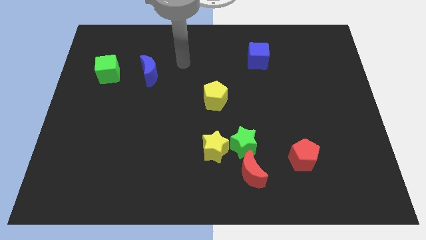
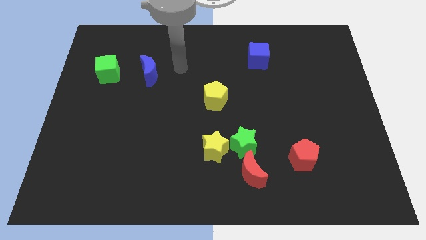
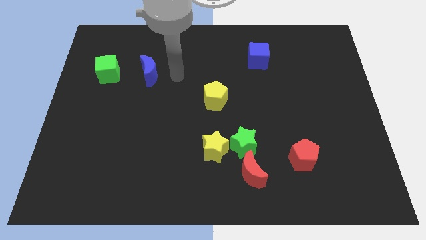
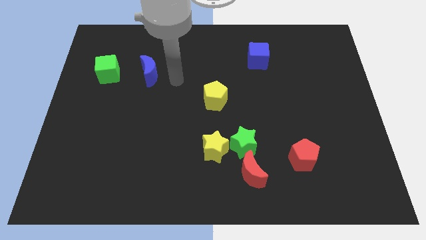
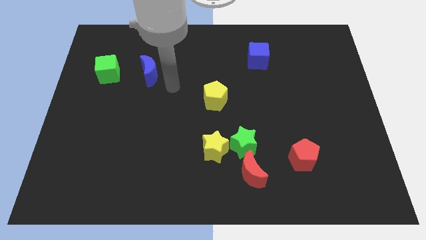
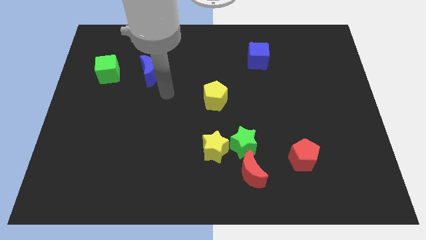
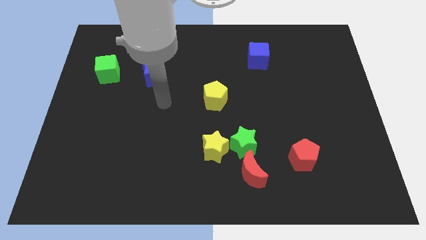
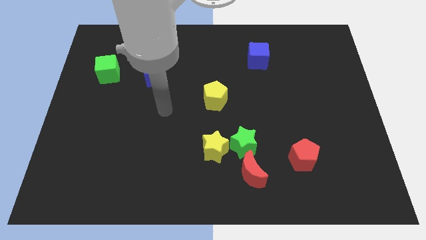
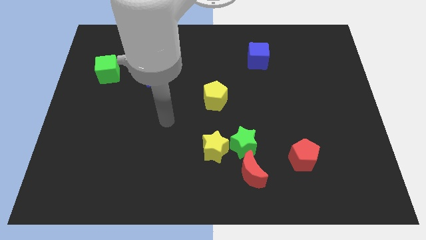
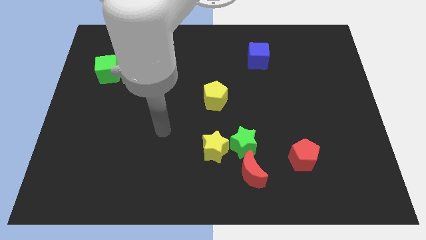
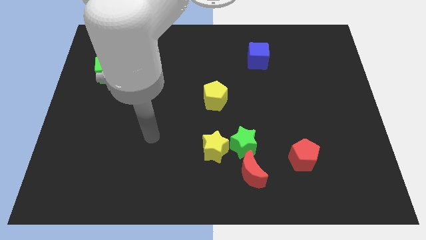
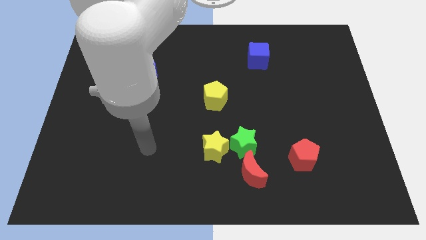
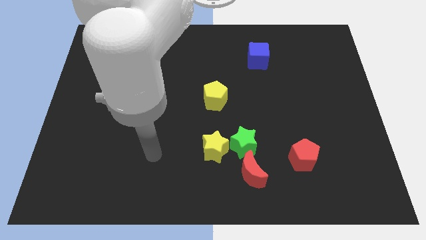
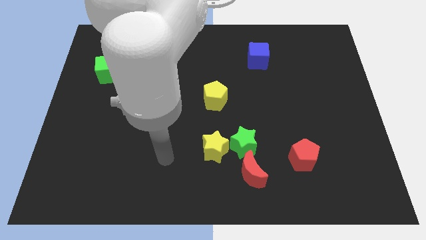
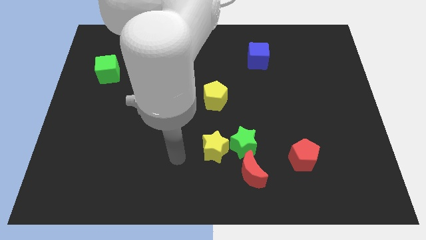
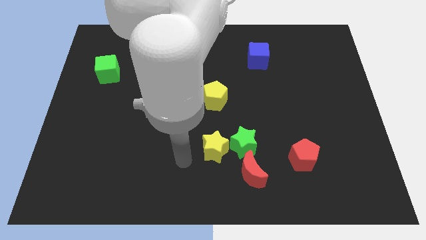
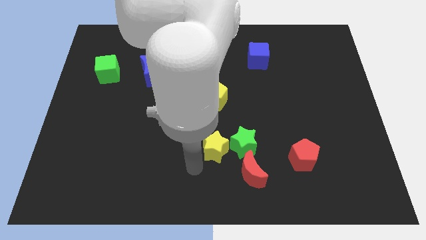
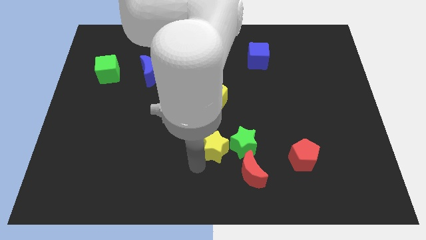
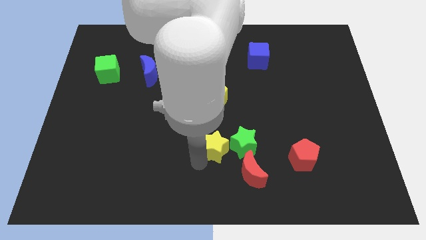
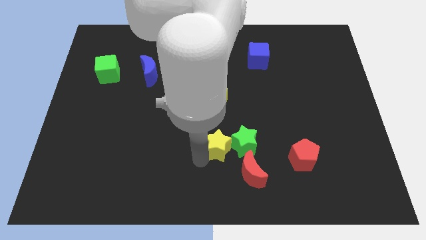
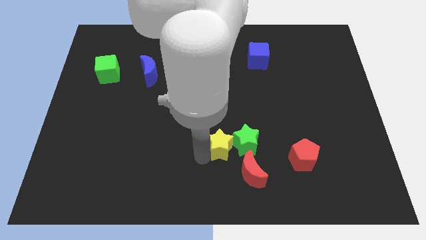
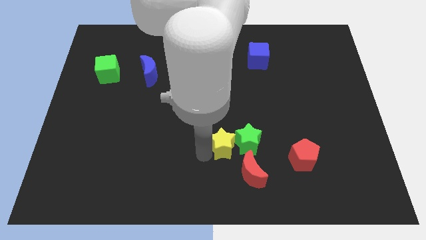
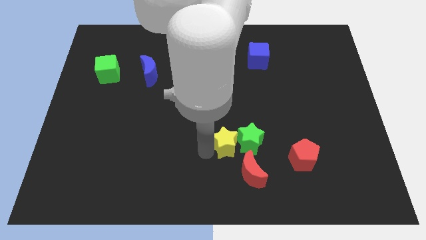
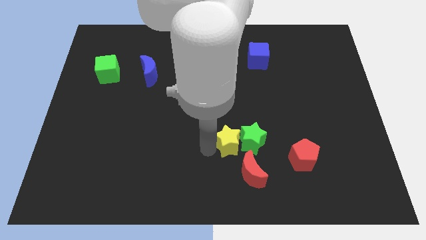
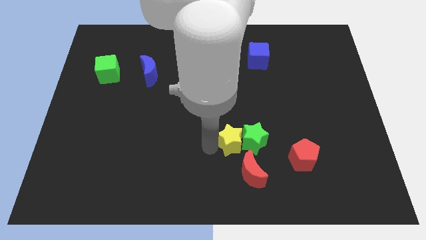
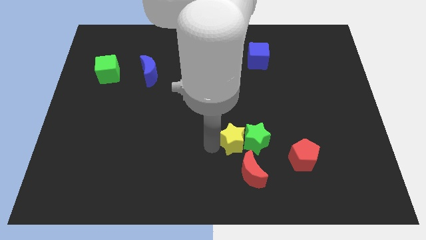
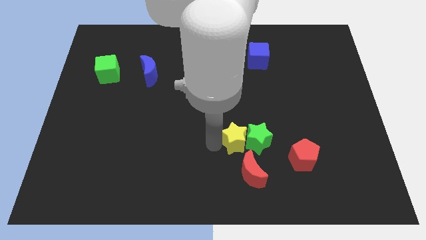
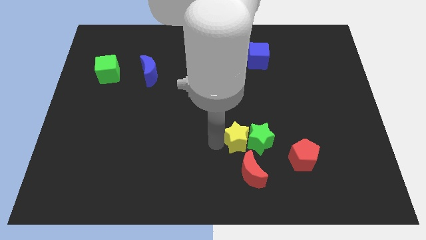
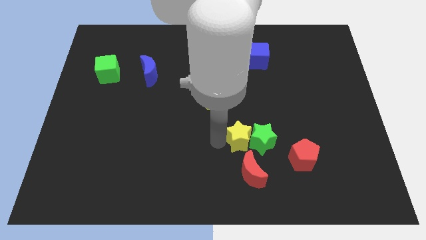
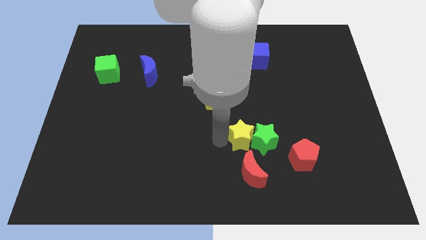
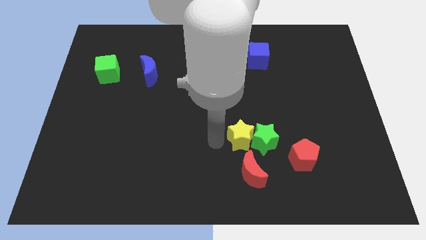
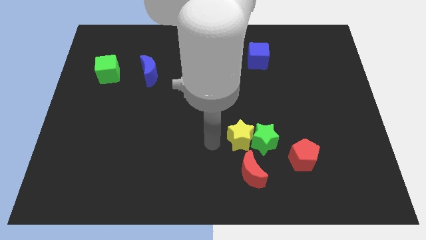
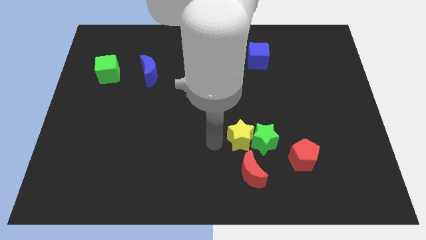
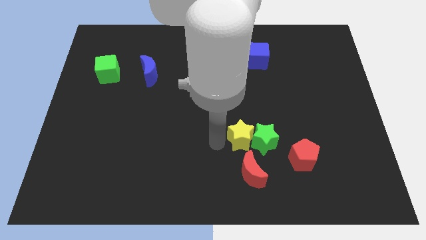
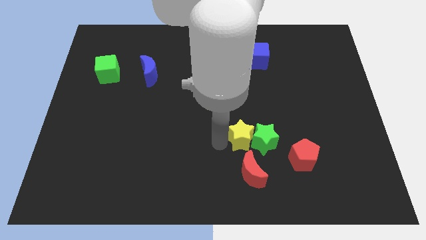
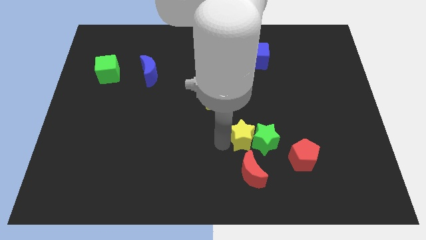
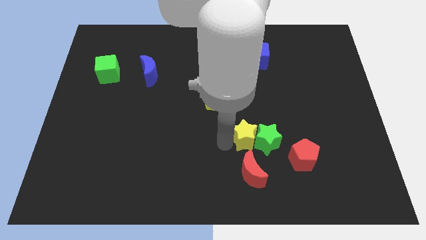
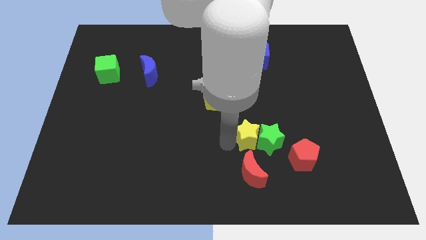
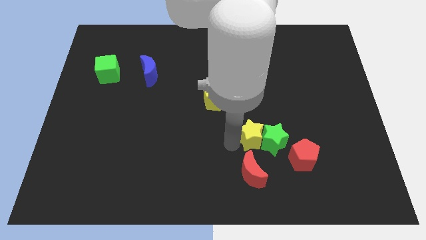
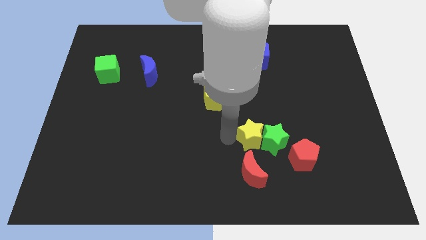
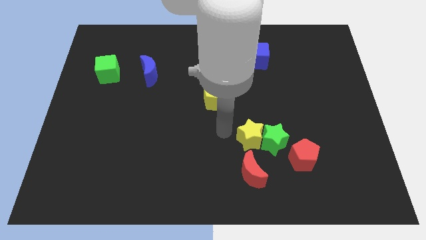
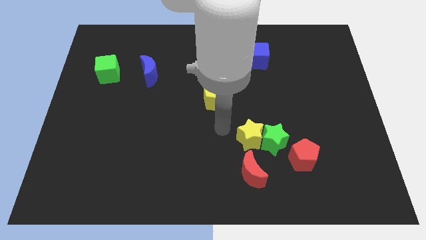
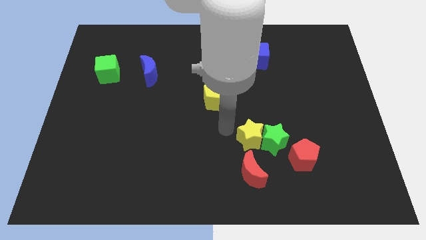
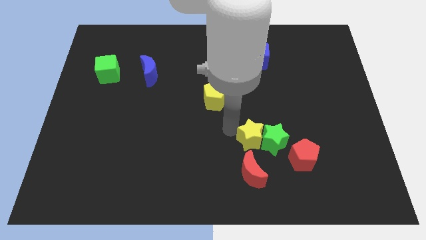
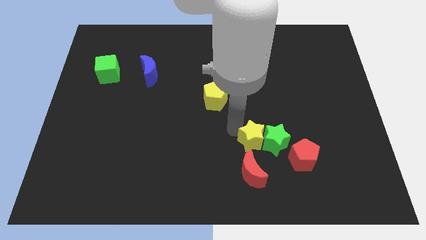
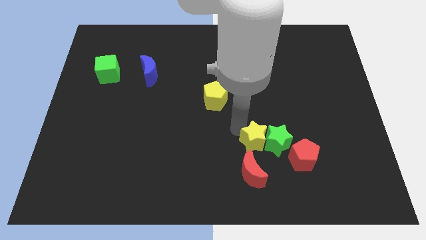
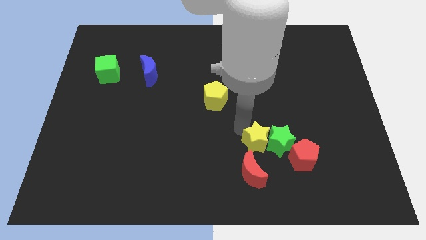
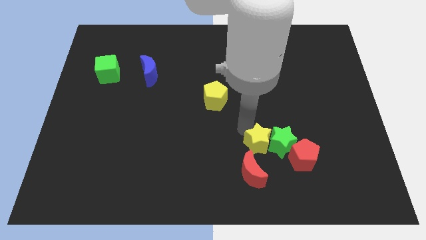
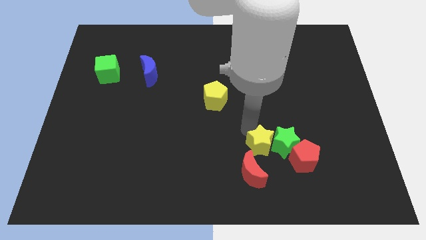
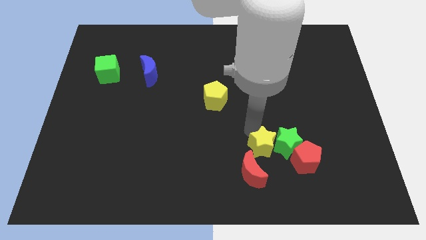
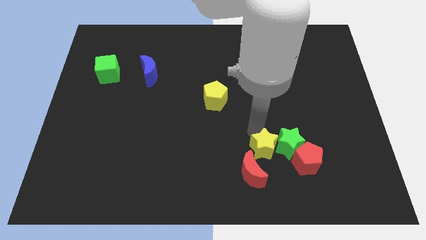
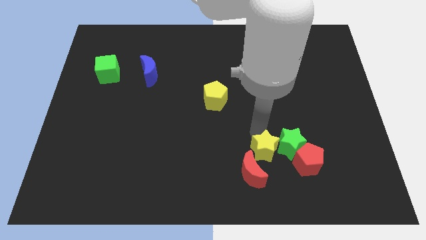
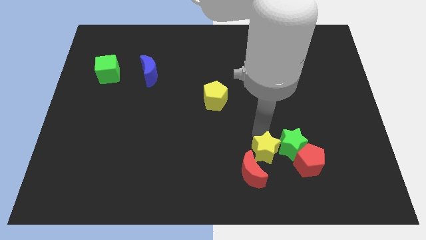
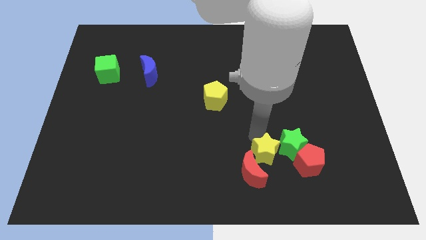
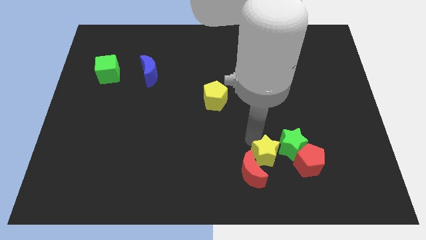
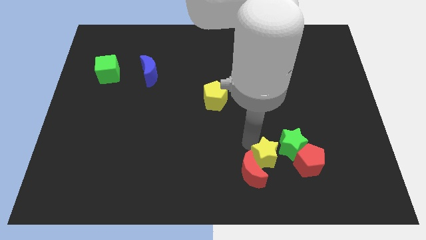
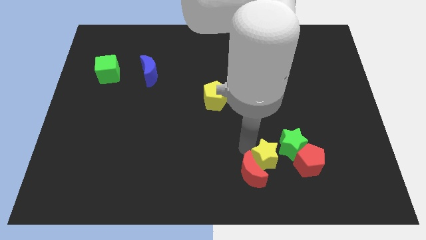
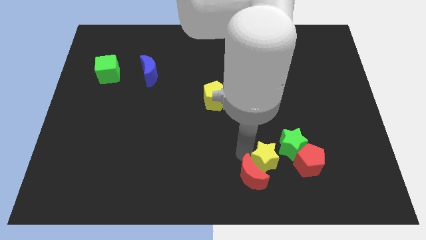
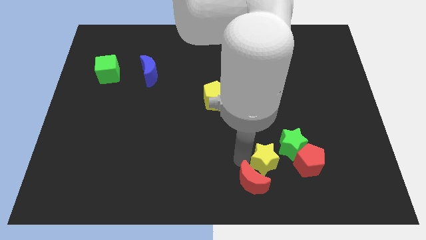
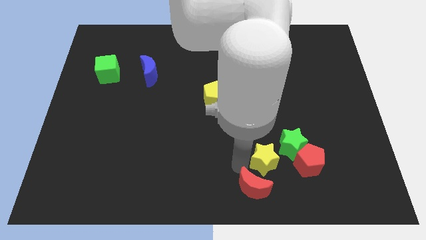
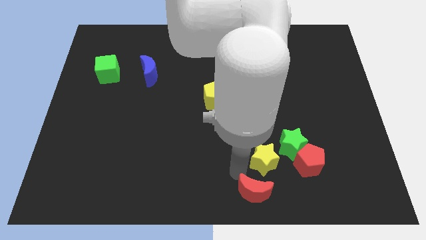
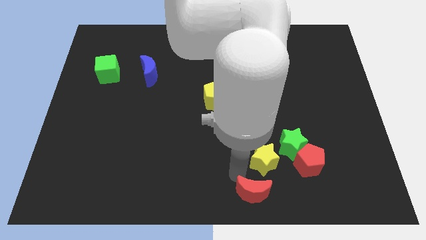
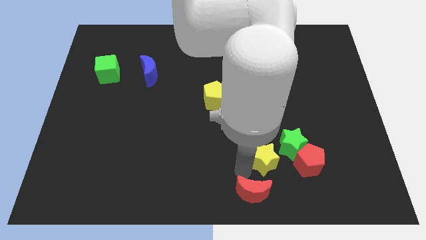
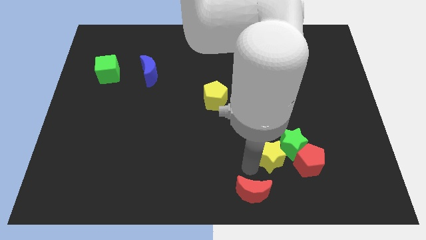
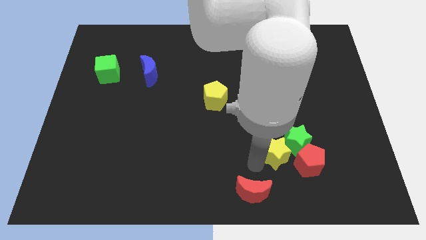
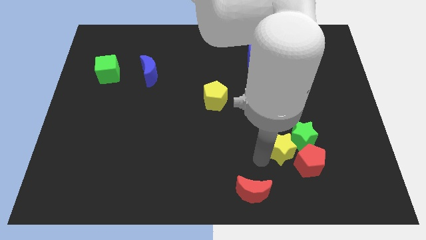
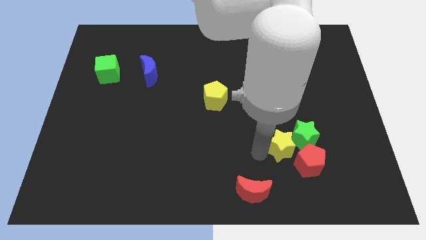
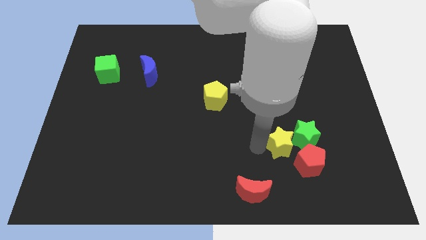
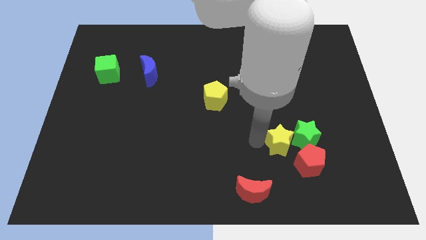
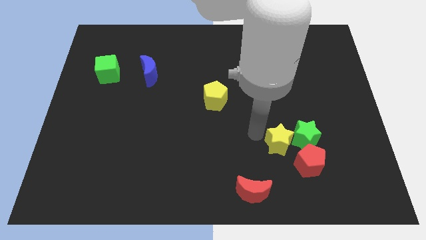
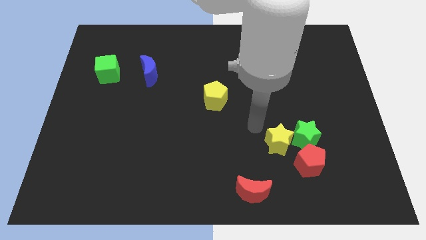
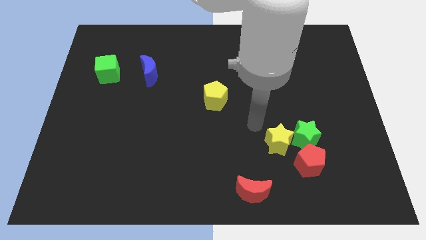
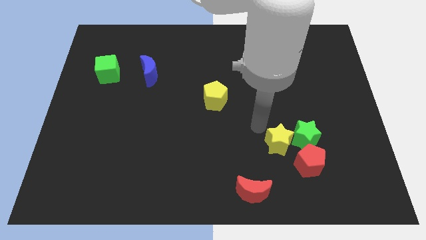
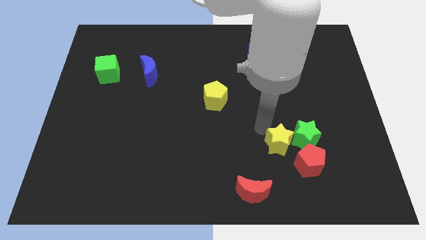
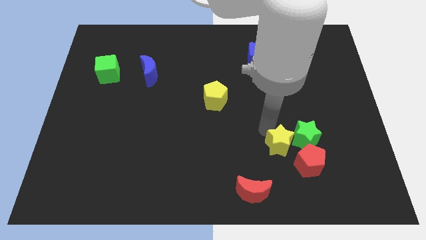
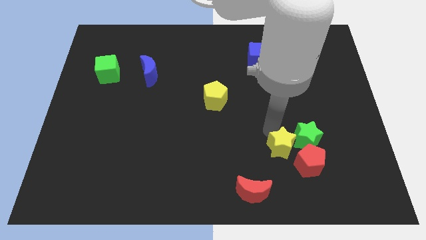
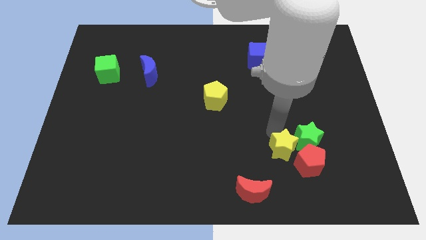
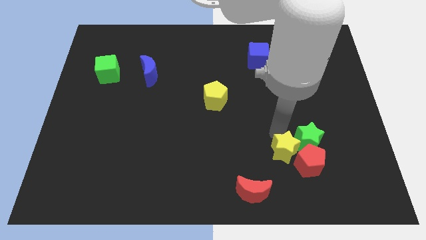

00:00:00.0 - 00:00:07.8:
push the yellow star next to the red pentagon
